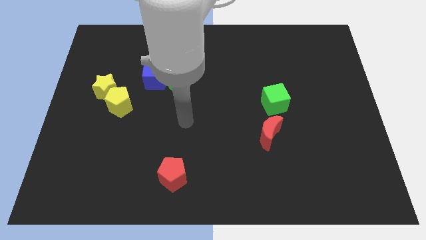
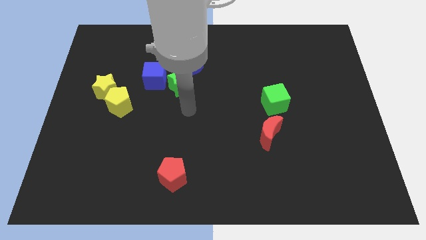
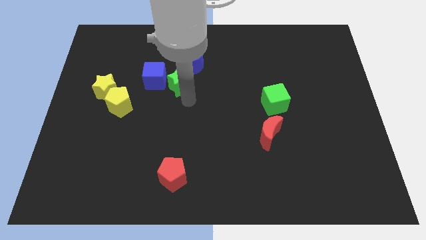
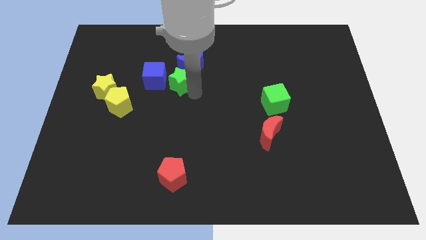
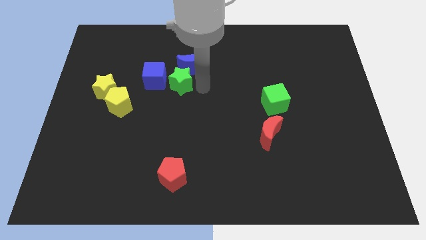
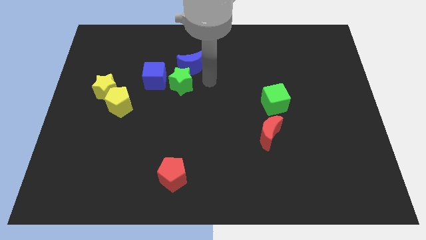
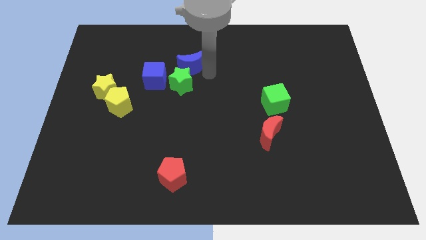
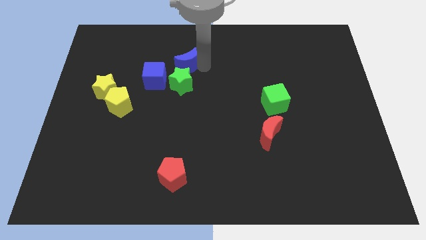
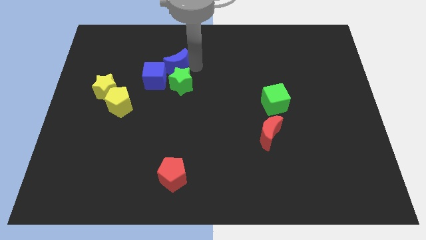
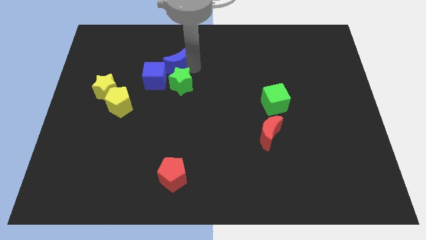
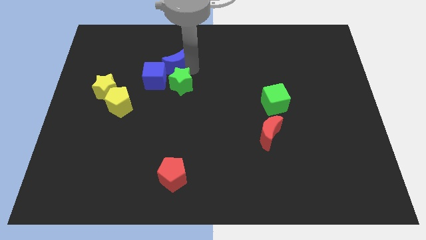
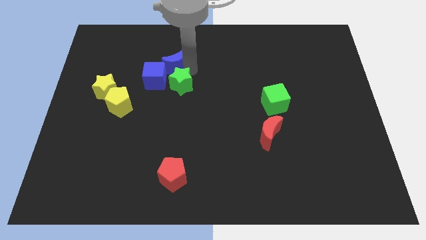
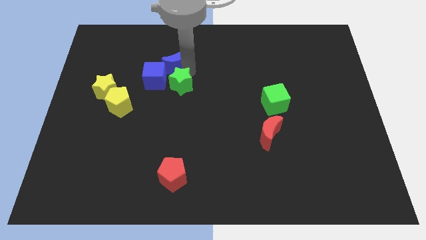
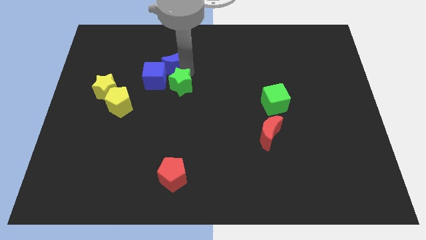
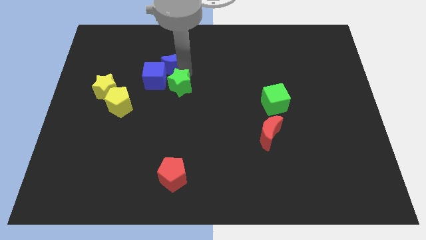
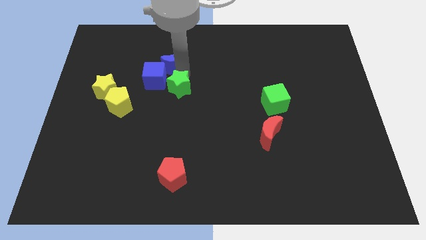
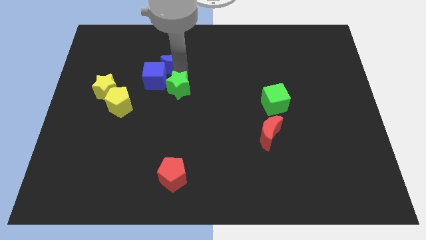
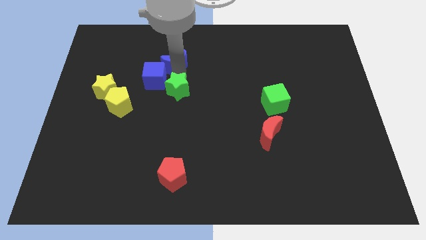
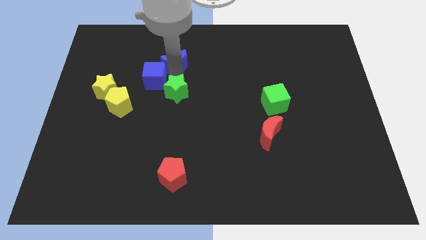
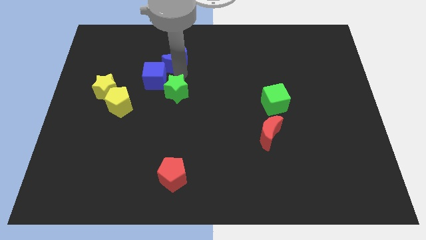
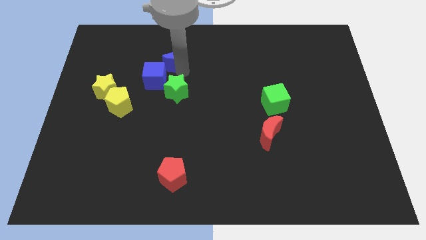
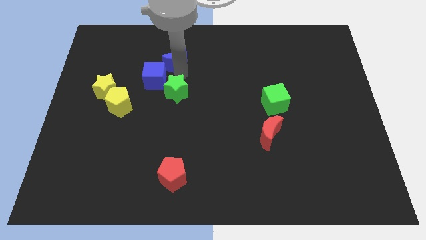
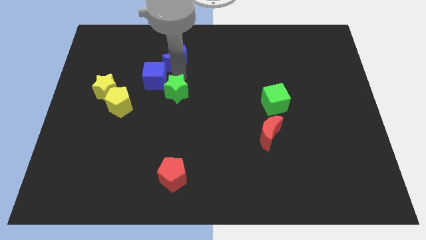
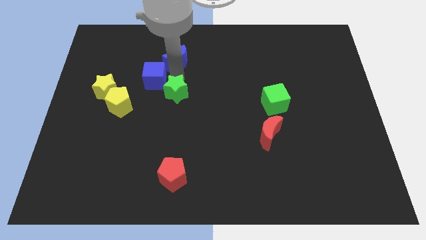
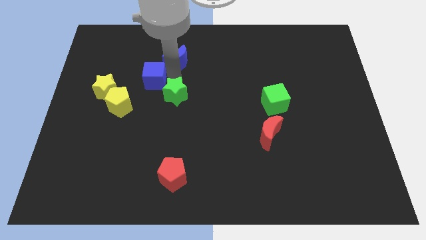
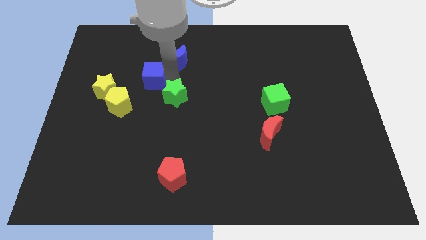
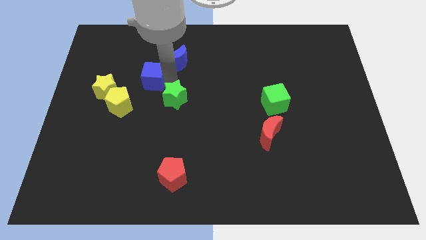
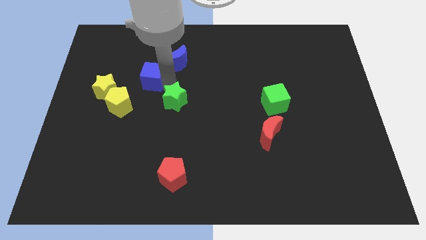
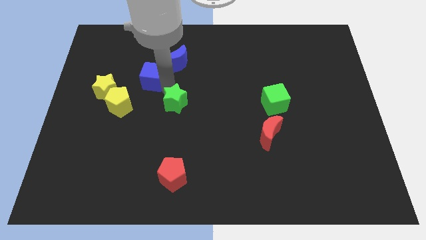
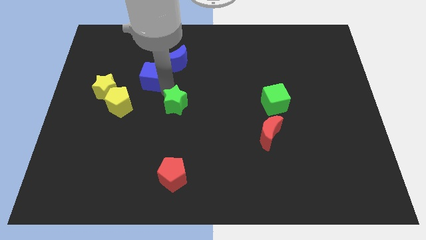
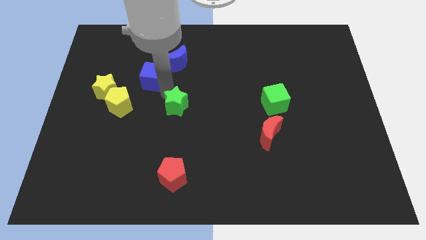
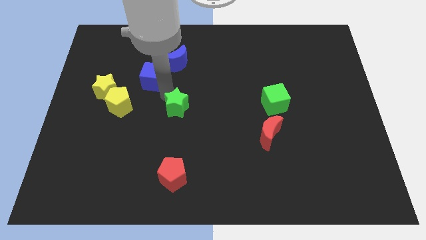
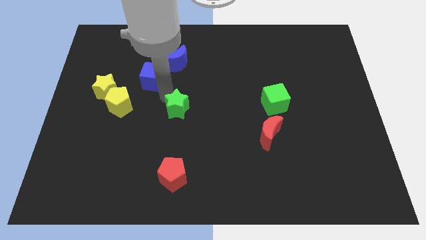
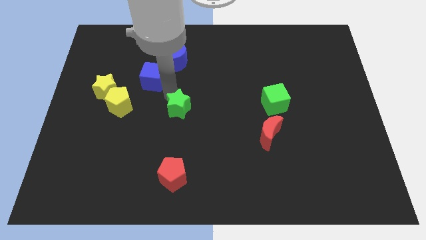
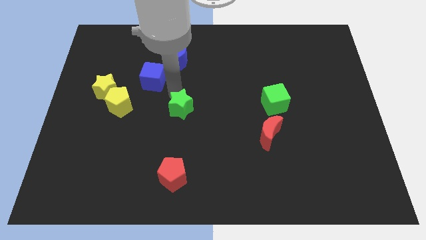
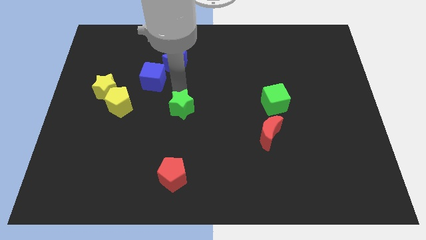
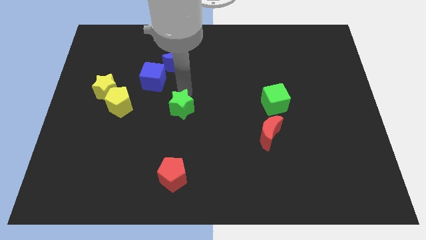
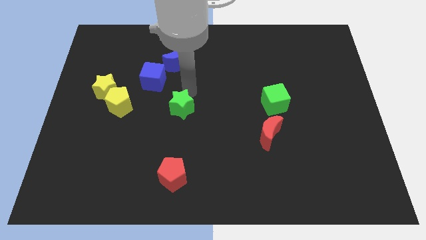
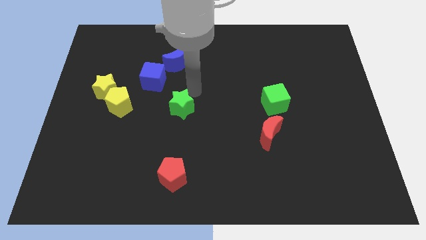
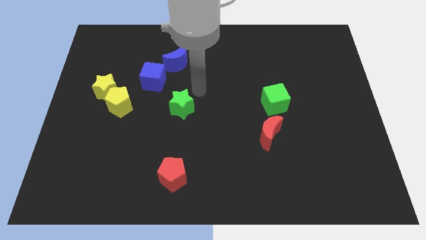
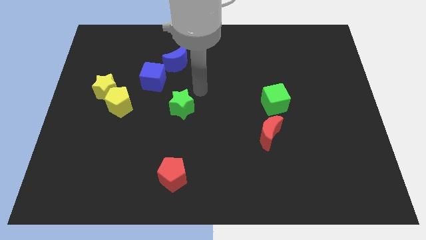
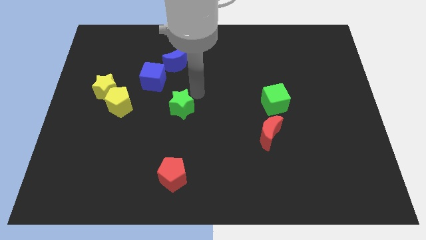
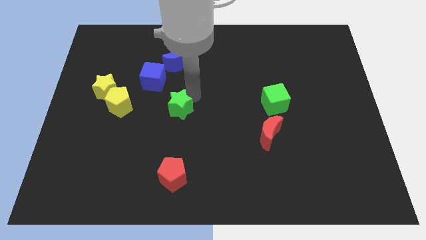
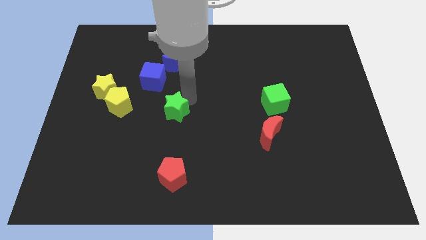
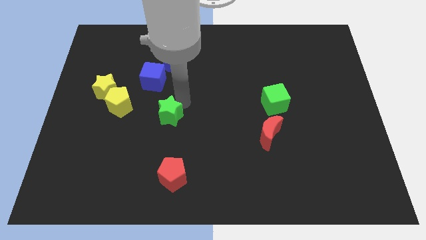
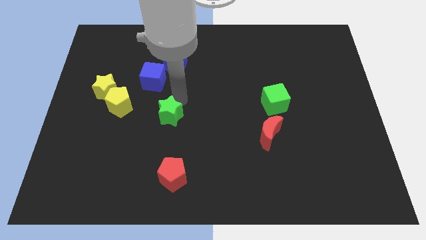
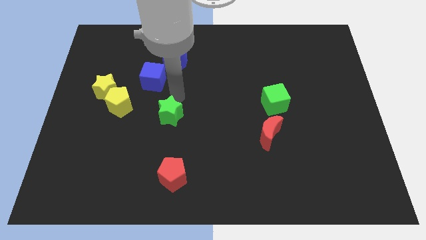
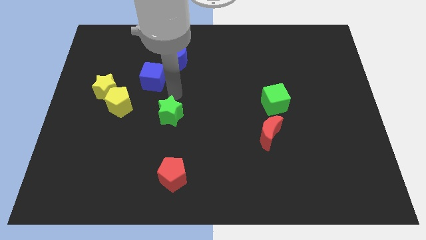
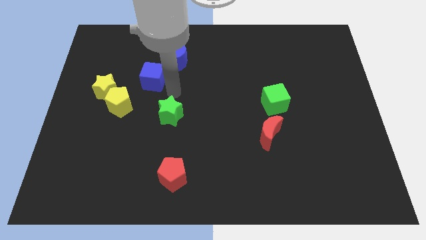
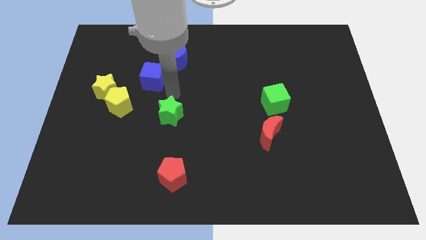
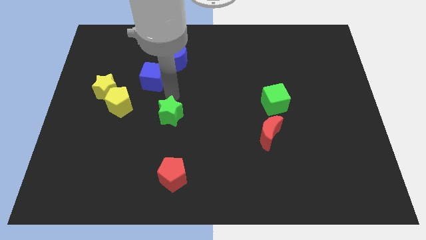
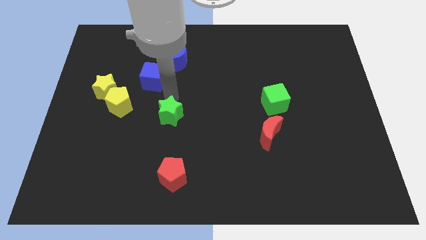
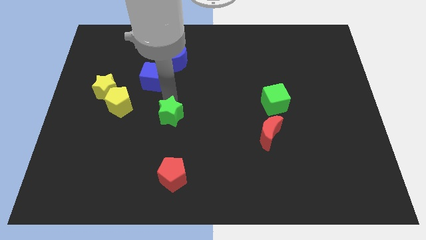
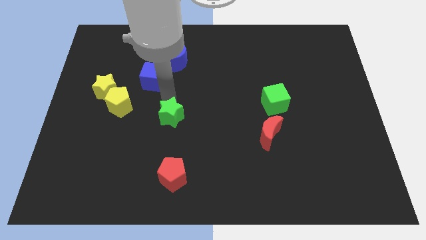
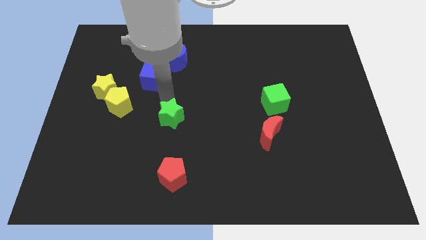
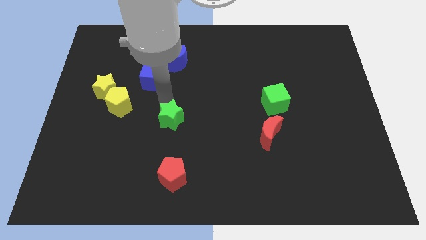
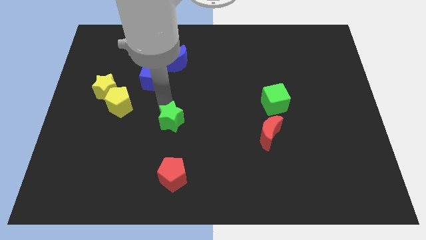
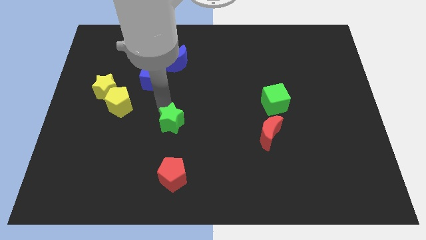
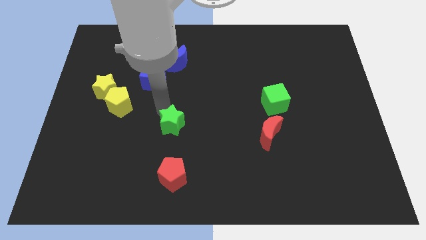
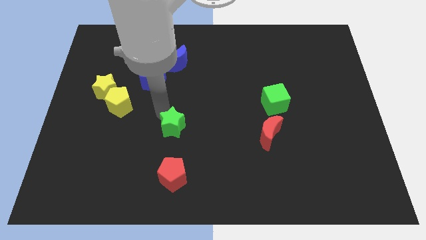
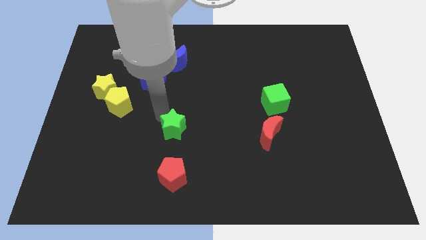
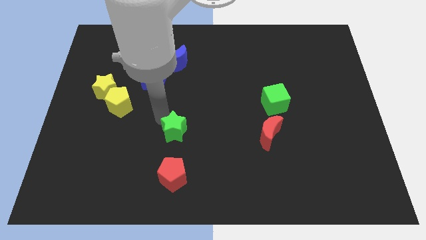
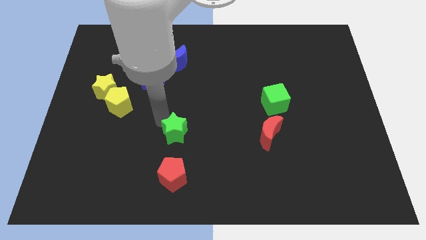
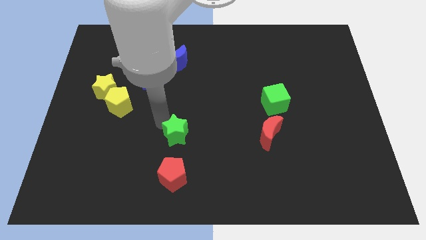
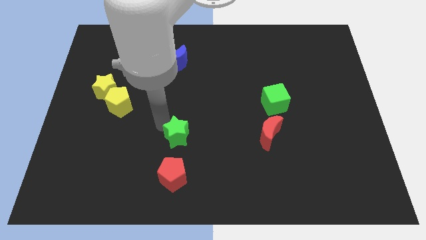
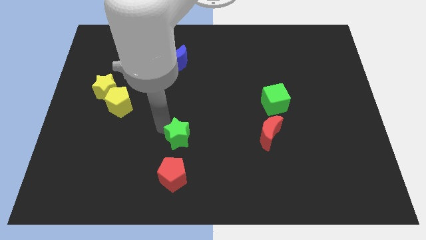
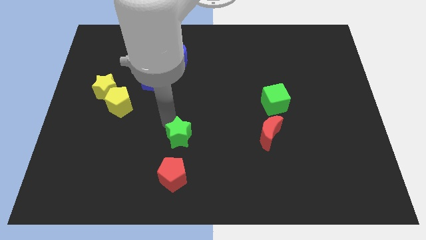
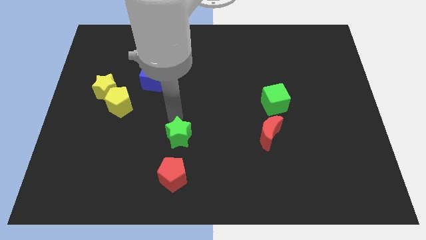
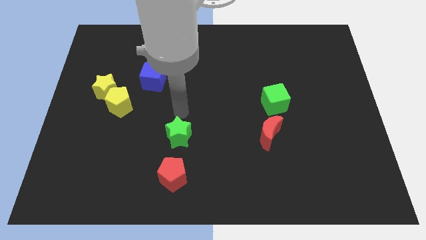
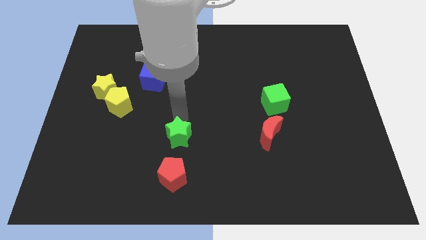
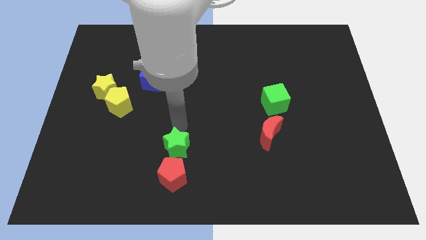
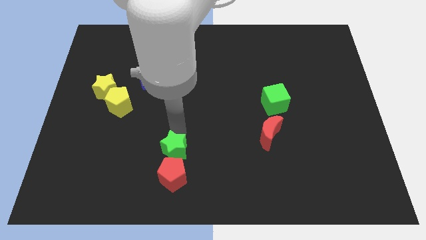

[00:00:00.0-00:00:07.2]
push the green star to the red pentagon
